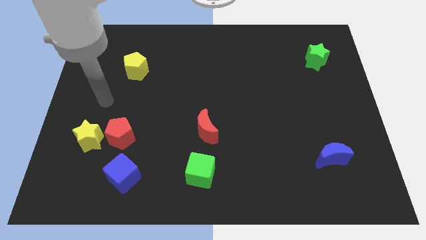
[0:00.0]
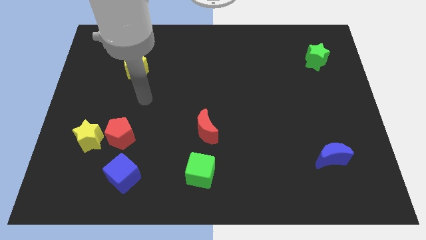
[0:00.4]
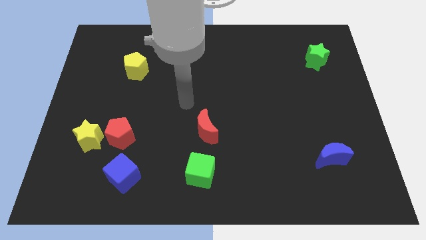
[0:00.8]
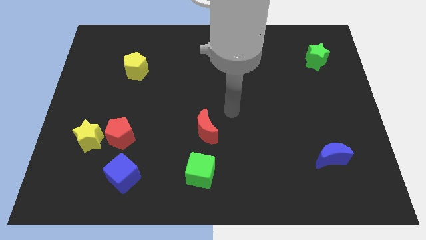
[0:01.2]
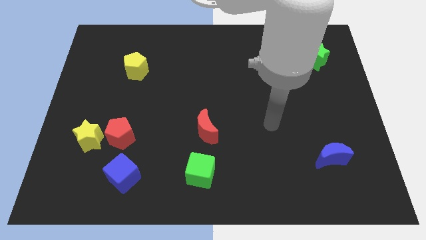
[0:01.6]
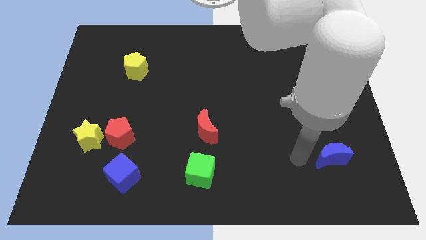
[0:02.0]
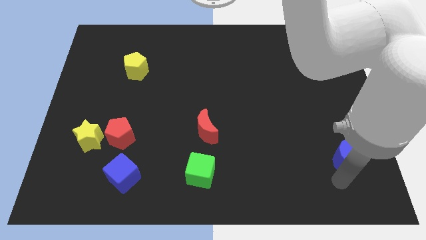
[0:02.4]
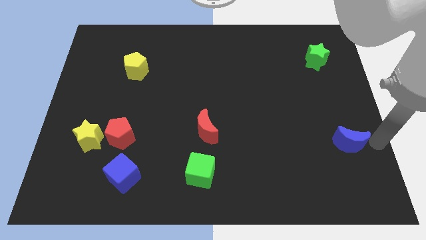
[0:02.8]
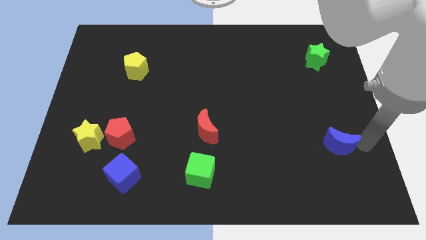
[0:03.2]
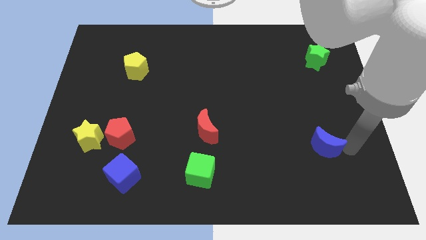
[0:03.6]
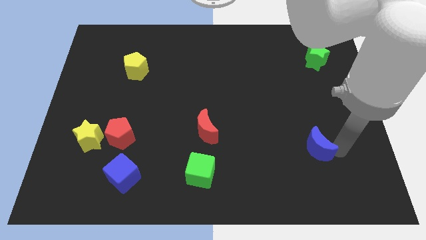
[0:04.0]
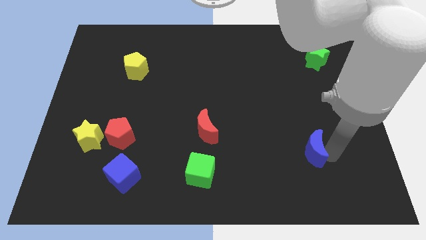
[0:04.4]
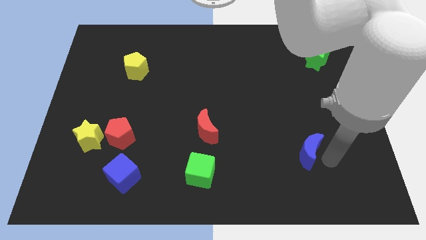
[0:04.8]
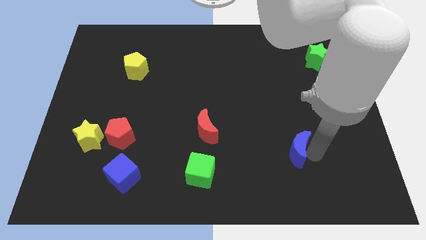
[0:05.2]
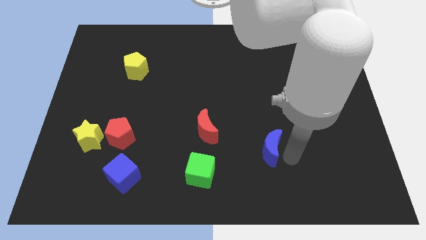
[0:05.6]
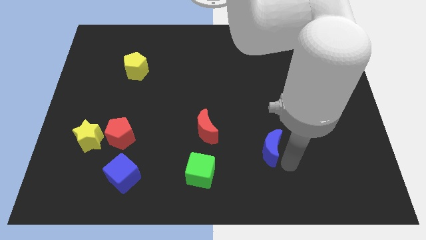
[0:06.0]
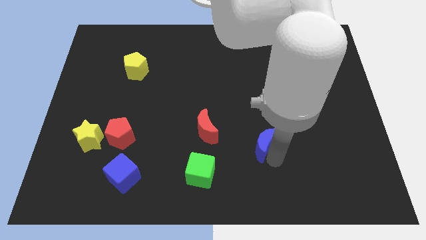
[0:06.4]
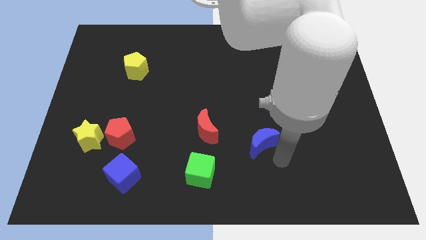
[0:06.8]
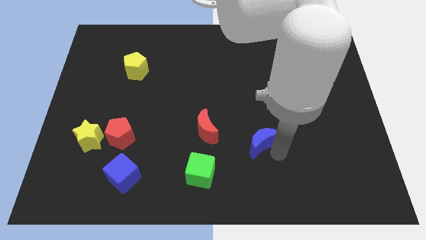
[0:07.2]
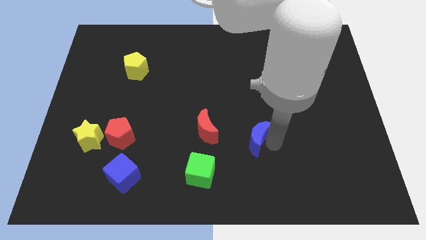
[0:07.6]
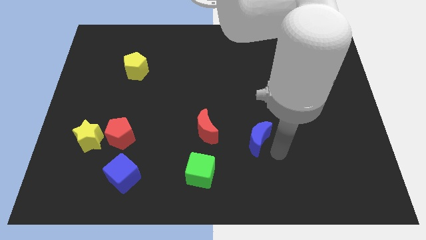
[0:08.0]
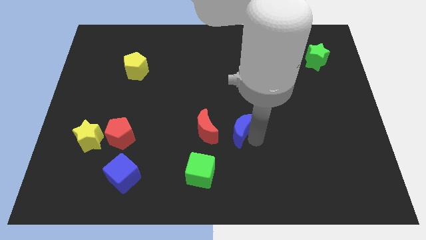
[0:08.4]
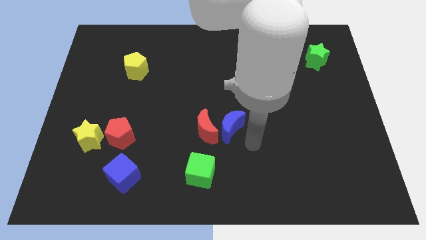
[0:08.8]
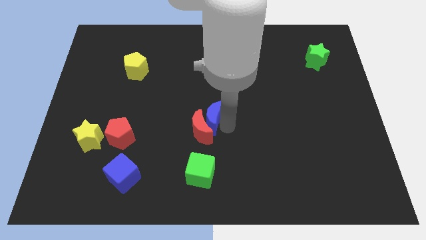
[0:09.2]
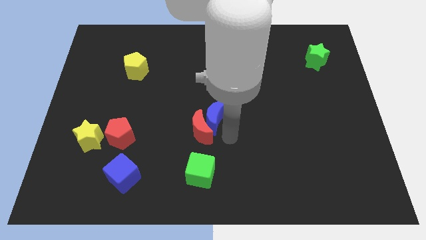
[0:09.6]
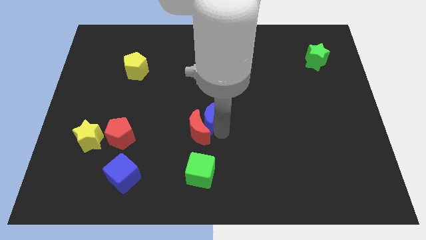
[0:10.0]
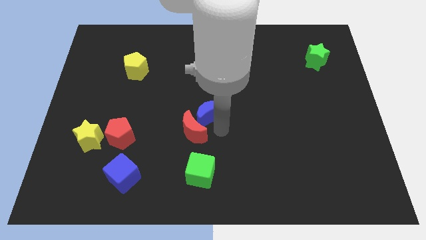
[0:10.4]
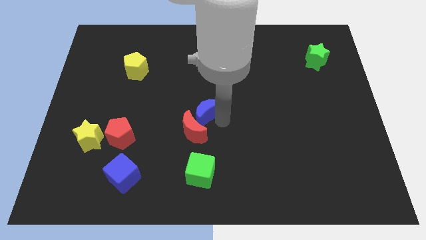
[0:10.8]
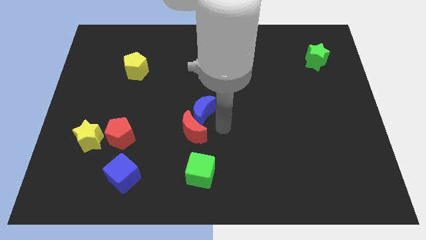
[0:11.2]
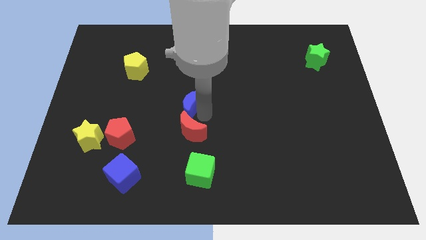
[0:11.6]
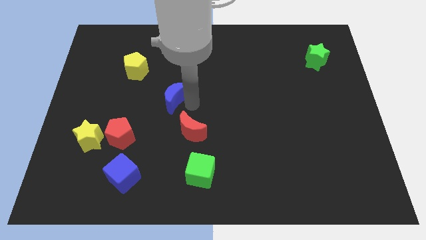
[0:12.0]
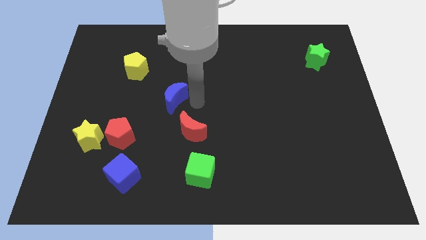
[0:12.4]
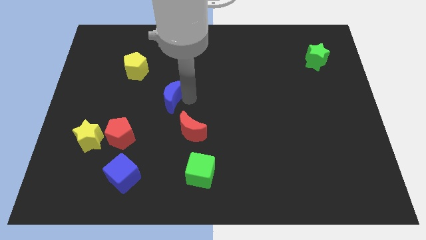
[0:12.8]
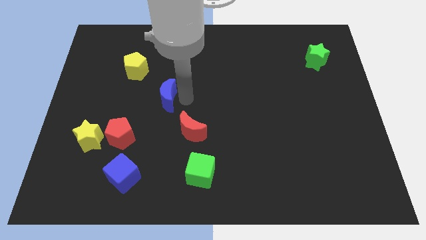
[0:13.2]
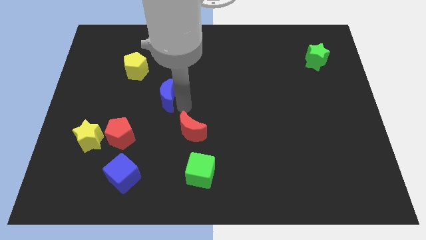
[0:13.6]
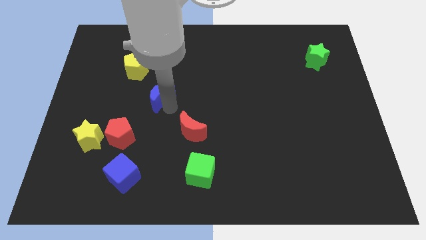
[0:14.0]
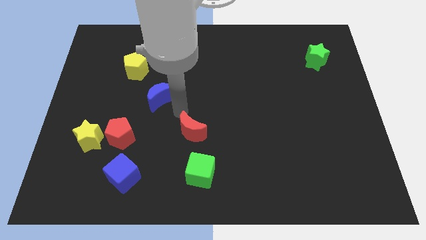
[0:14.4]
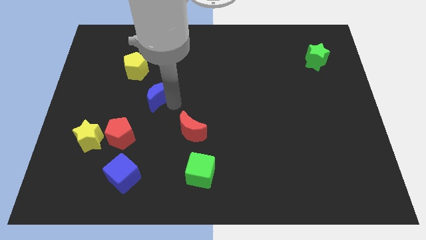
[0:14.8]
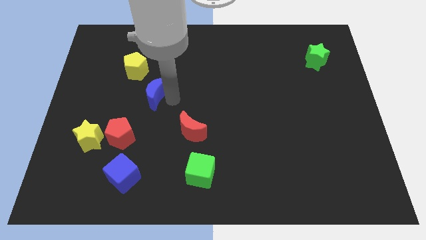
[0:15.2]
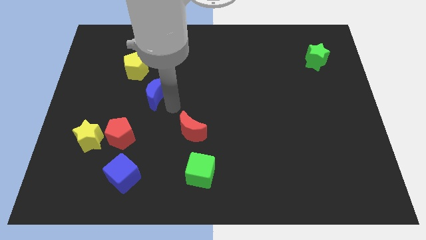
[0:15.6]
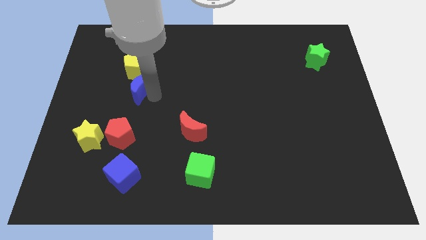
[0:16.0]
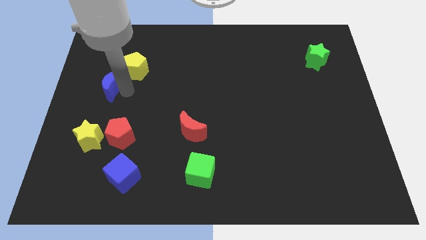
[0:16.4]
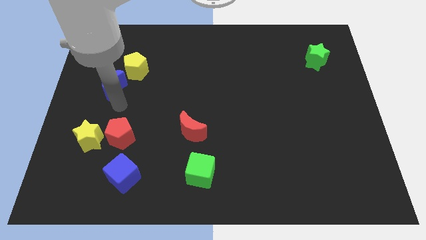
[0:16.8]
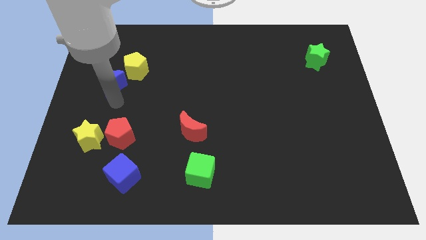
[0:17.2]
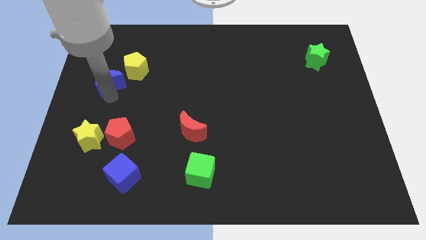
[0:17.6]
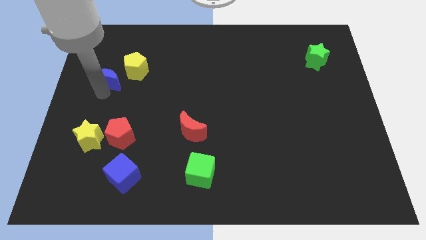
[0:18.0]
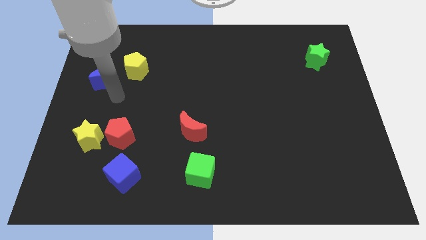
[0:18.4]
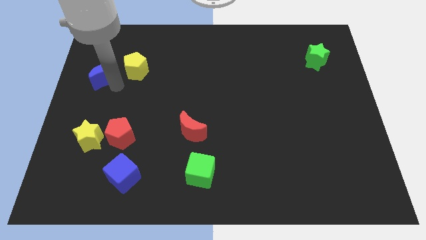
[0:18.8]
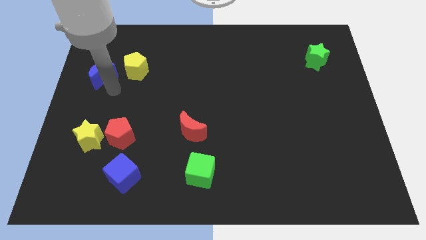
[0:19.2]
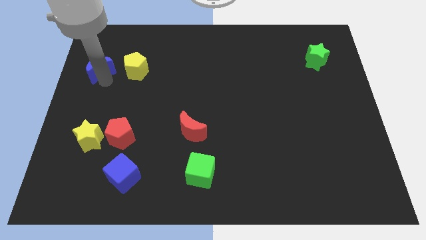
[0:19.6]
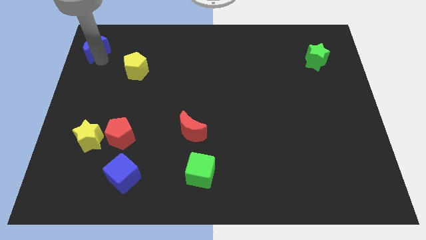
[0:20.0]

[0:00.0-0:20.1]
slide the blue moon to the top left of the board
